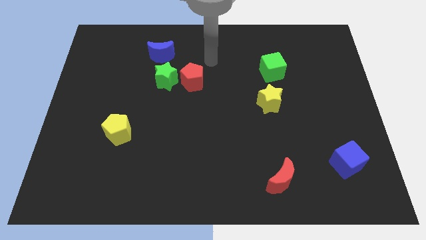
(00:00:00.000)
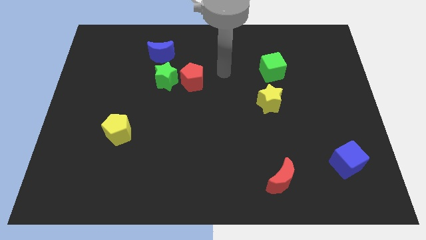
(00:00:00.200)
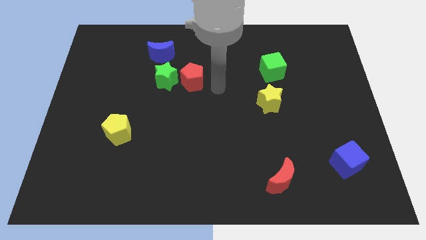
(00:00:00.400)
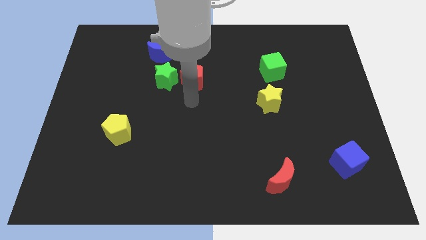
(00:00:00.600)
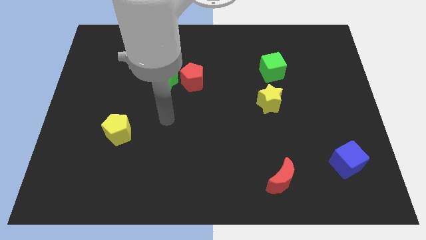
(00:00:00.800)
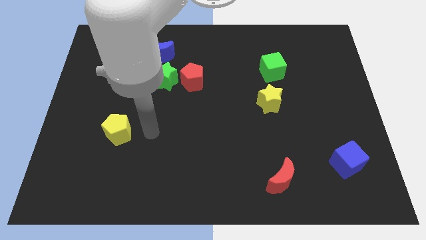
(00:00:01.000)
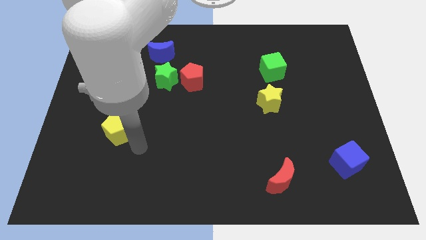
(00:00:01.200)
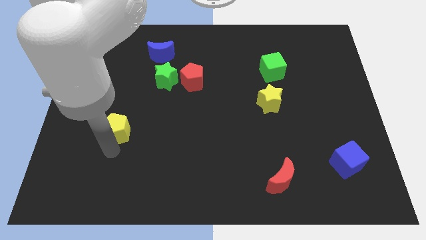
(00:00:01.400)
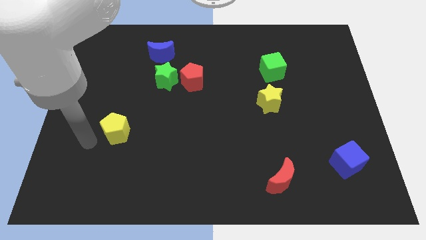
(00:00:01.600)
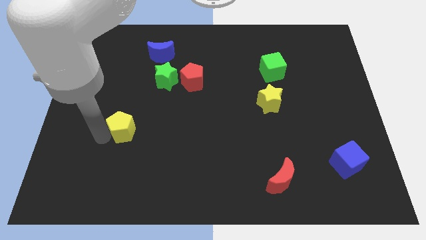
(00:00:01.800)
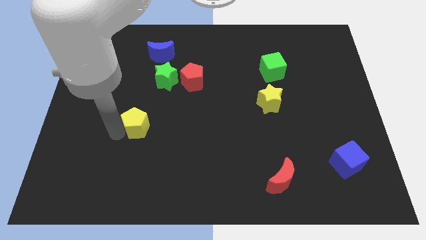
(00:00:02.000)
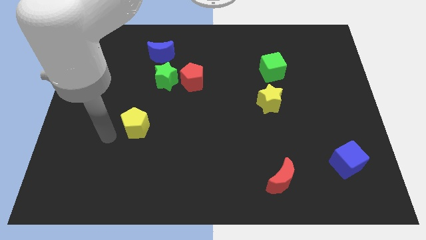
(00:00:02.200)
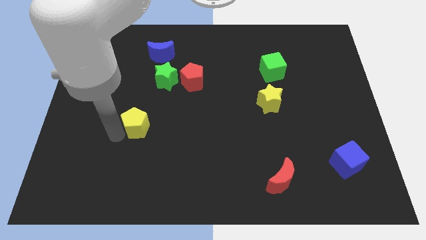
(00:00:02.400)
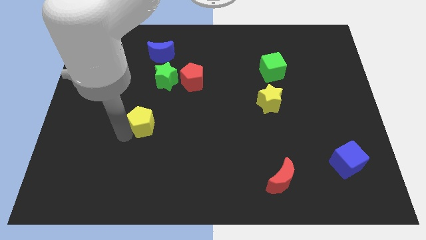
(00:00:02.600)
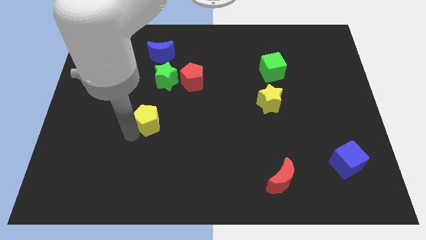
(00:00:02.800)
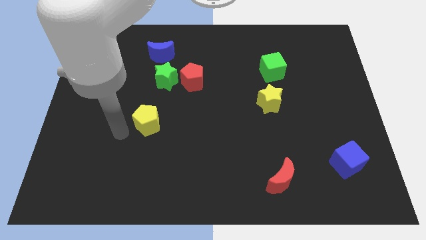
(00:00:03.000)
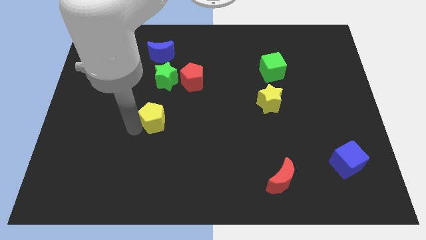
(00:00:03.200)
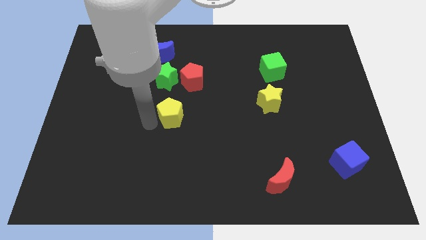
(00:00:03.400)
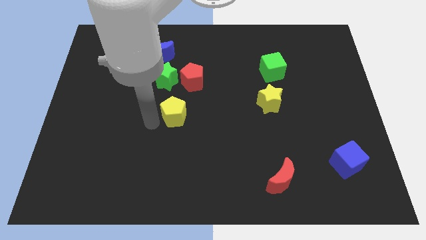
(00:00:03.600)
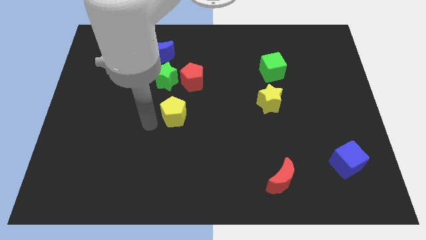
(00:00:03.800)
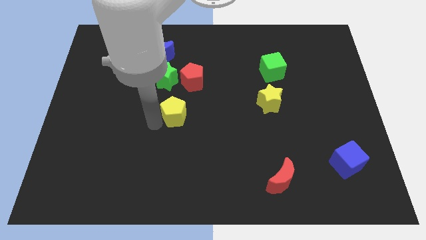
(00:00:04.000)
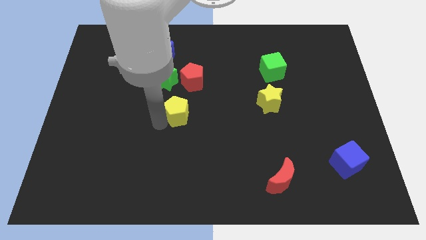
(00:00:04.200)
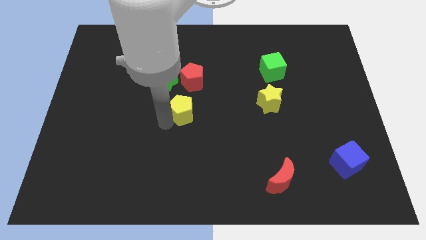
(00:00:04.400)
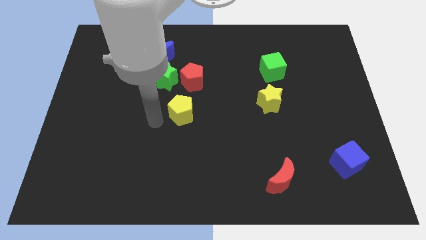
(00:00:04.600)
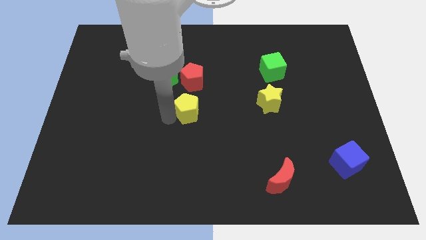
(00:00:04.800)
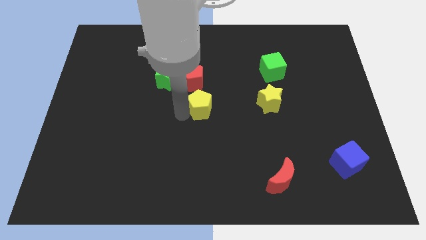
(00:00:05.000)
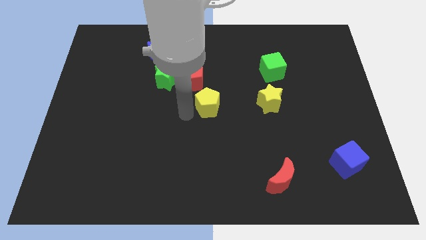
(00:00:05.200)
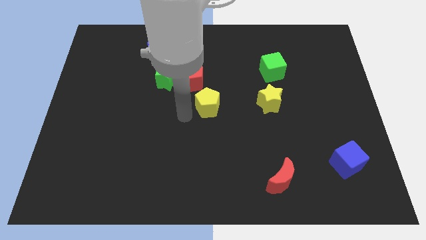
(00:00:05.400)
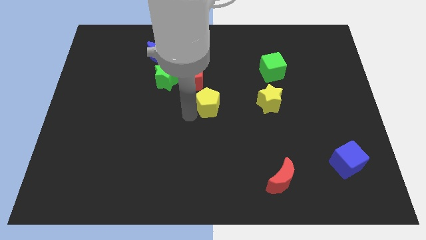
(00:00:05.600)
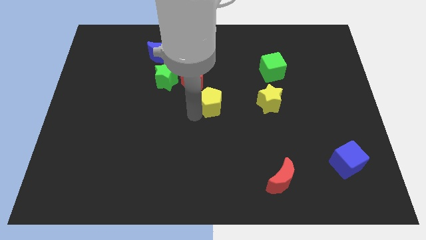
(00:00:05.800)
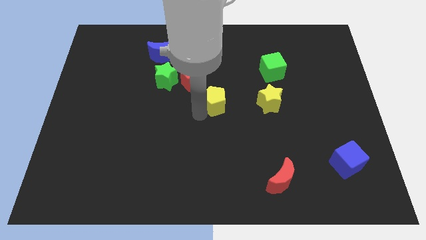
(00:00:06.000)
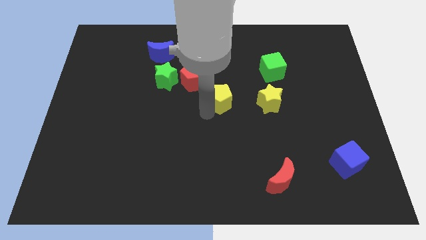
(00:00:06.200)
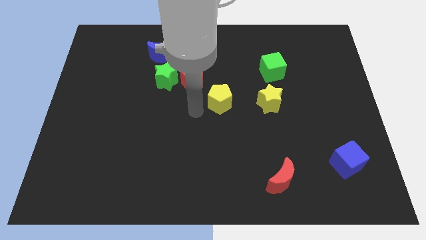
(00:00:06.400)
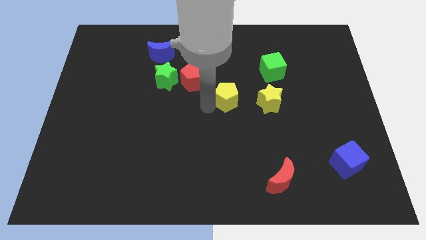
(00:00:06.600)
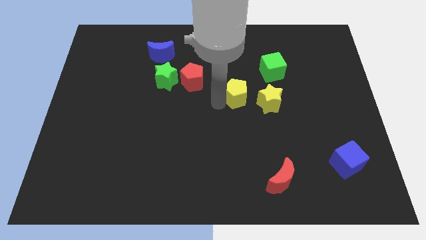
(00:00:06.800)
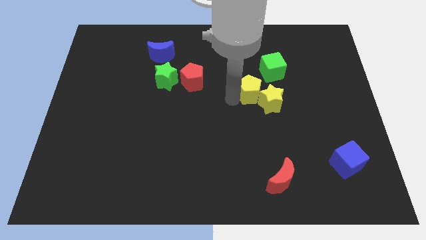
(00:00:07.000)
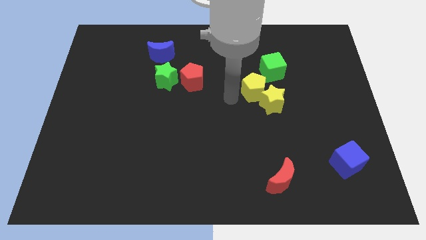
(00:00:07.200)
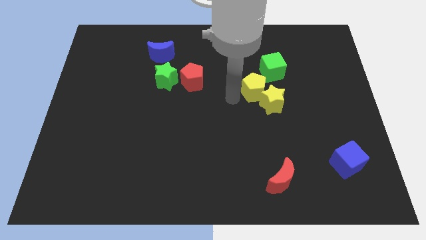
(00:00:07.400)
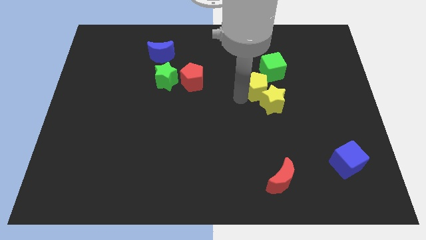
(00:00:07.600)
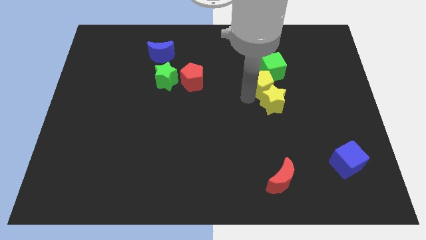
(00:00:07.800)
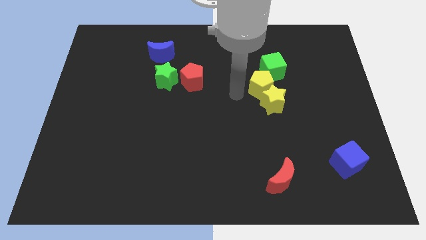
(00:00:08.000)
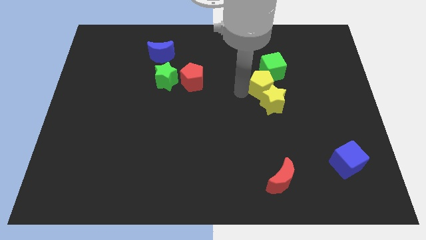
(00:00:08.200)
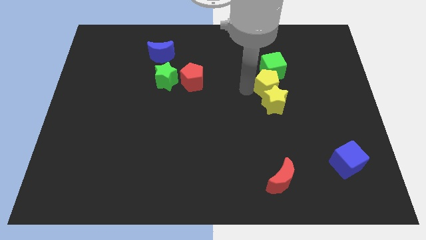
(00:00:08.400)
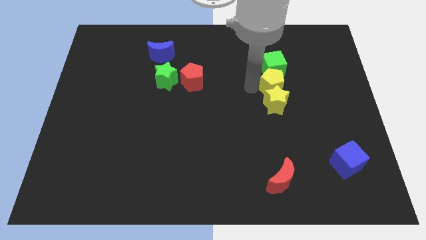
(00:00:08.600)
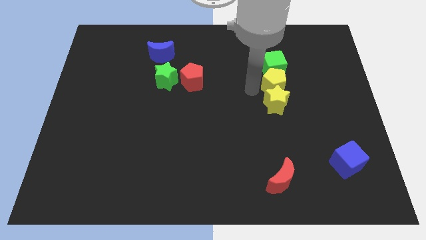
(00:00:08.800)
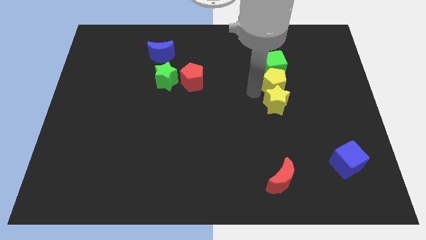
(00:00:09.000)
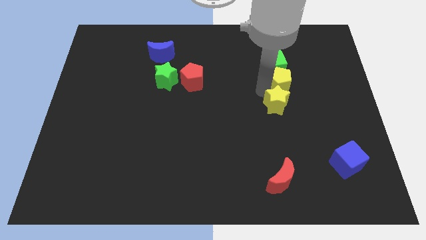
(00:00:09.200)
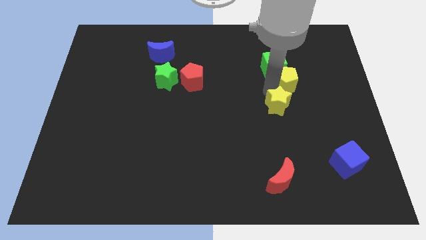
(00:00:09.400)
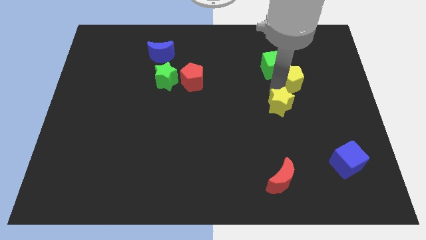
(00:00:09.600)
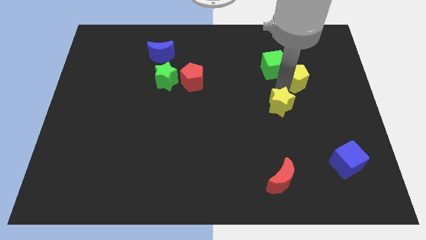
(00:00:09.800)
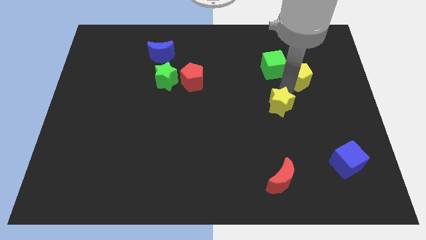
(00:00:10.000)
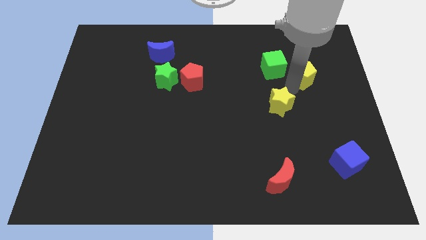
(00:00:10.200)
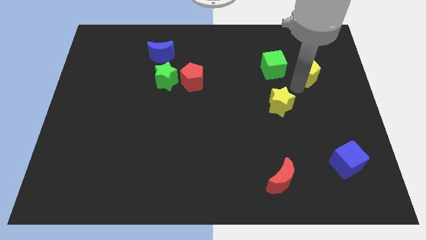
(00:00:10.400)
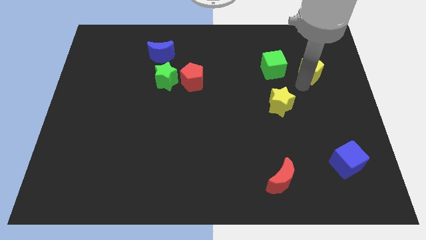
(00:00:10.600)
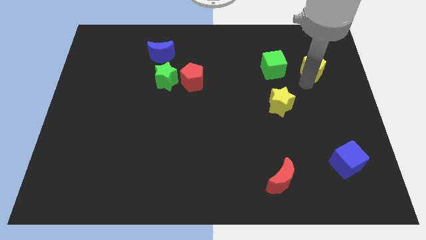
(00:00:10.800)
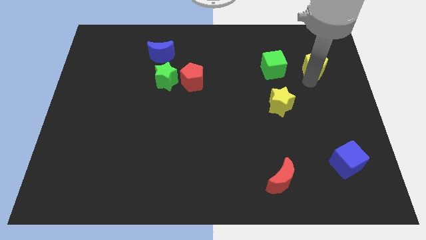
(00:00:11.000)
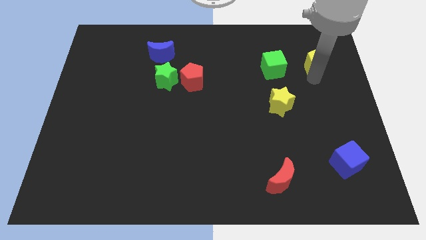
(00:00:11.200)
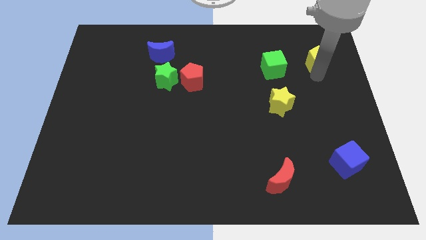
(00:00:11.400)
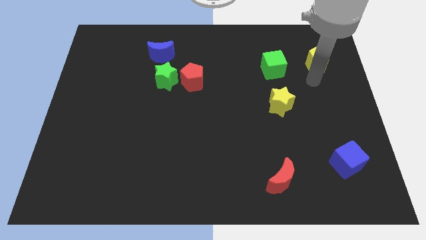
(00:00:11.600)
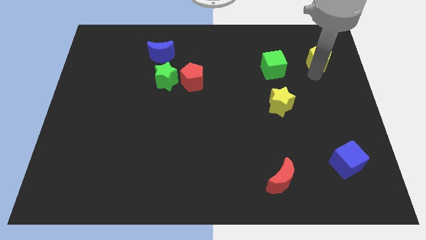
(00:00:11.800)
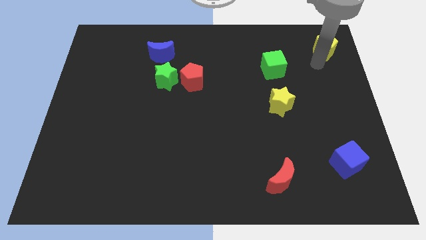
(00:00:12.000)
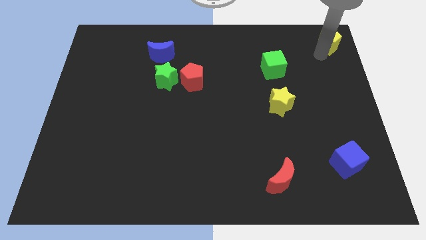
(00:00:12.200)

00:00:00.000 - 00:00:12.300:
move the yellow pentagon to the top right corner
